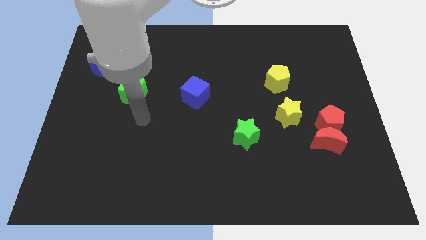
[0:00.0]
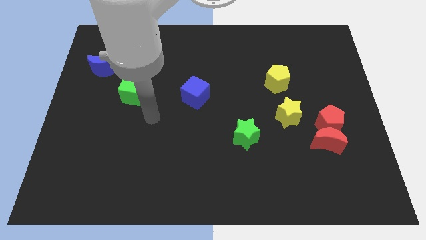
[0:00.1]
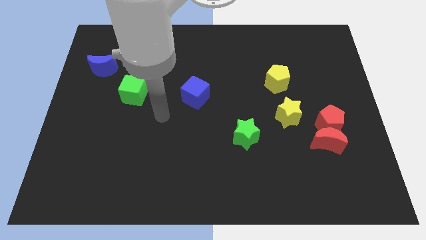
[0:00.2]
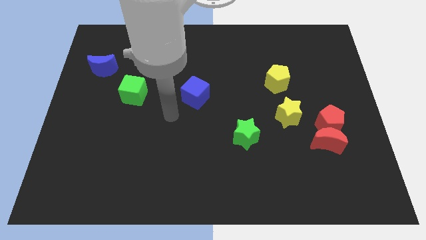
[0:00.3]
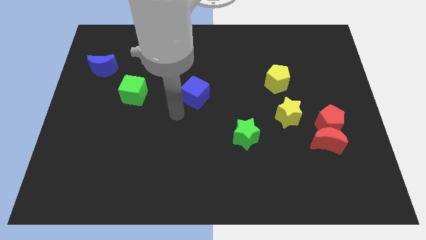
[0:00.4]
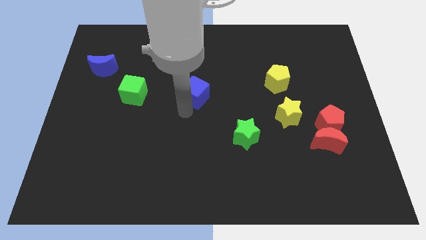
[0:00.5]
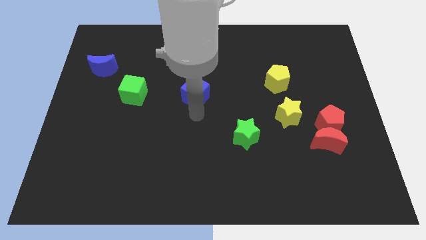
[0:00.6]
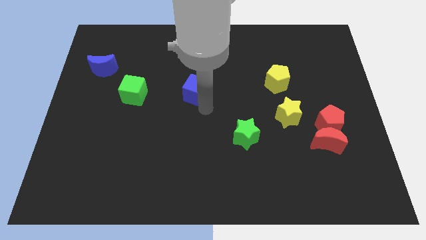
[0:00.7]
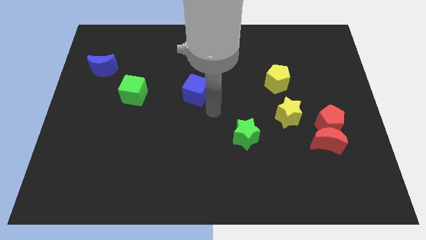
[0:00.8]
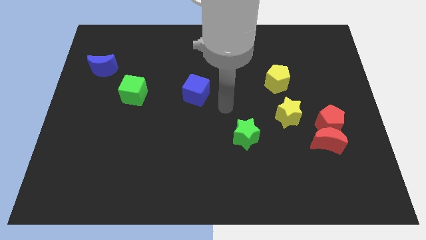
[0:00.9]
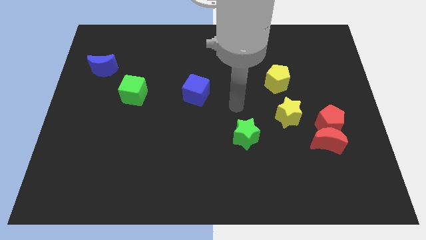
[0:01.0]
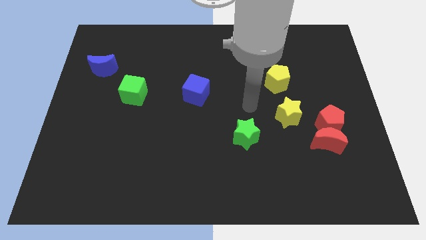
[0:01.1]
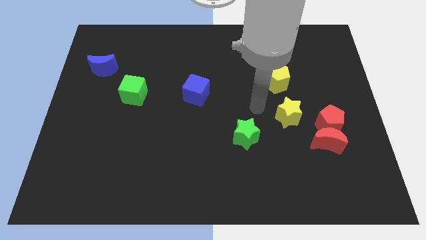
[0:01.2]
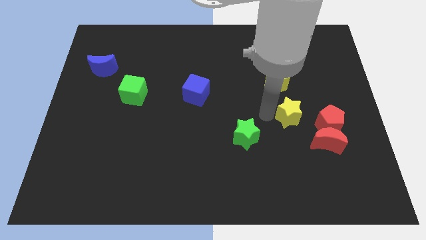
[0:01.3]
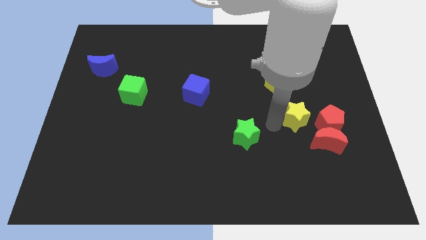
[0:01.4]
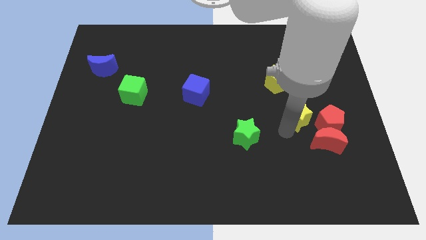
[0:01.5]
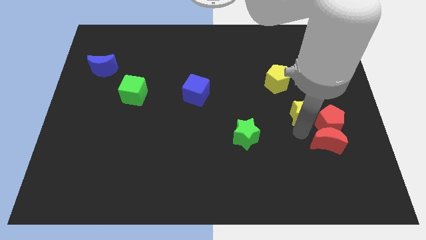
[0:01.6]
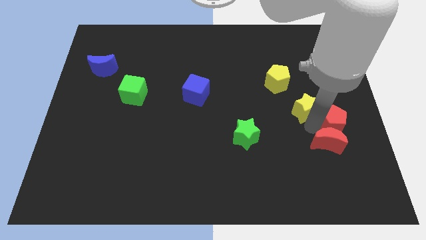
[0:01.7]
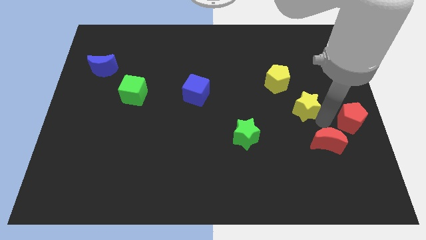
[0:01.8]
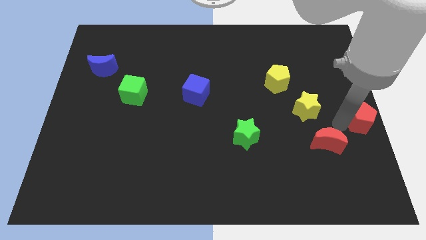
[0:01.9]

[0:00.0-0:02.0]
pull the red moon apart from the red pentagon

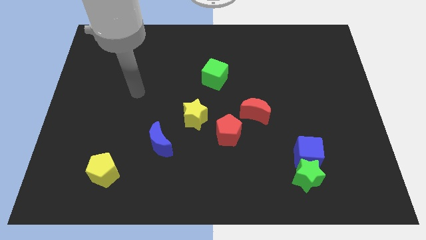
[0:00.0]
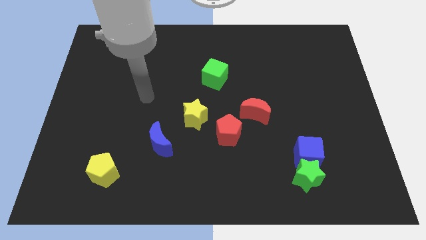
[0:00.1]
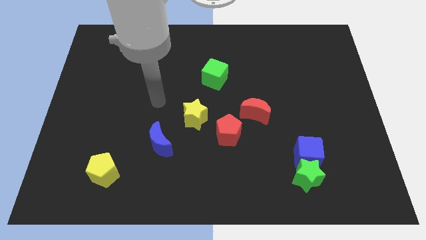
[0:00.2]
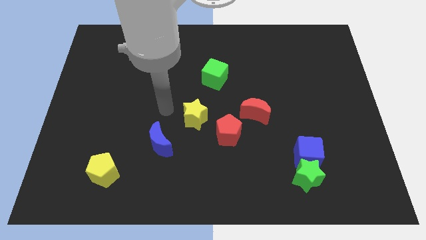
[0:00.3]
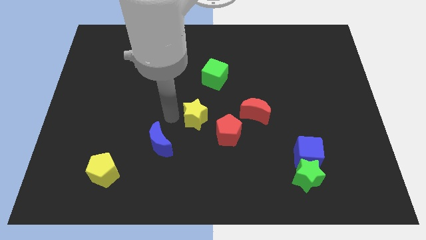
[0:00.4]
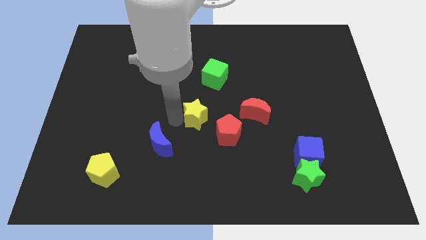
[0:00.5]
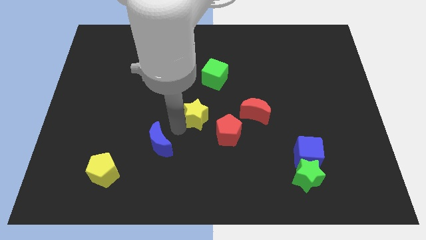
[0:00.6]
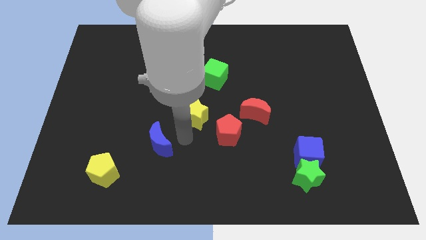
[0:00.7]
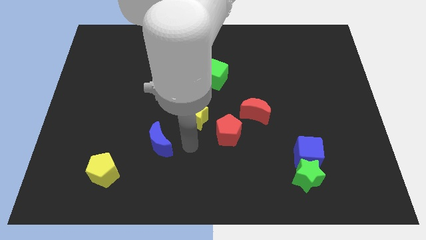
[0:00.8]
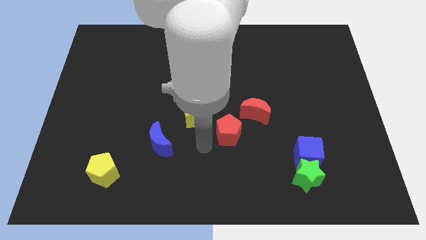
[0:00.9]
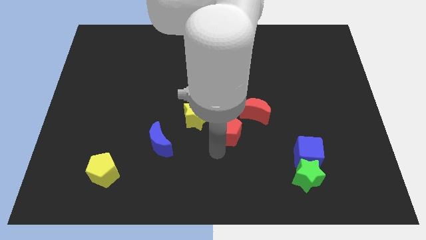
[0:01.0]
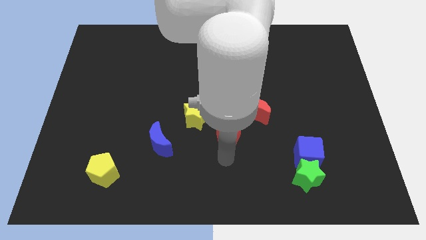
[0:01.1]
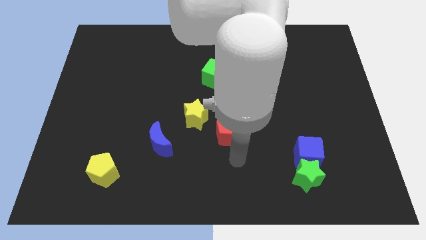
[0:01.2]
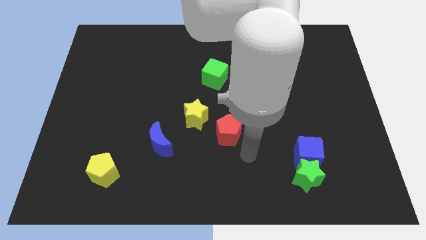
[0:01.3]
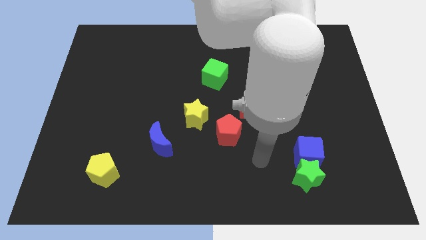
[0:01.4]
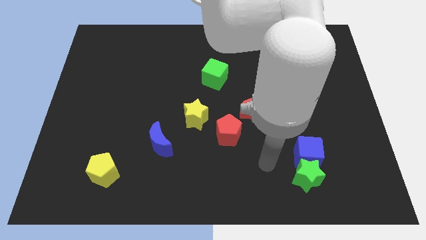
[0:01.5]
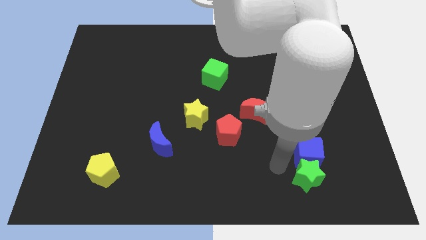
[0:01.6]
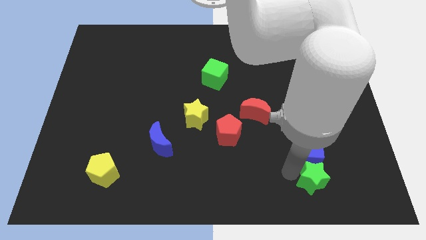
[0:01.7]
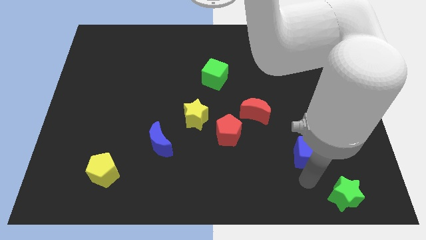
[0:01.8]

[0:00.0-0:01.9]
move the blue cube away from the green star

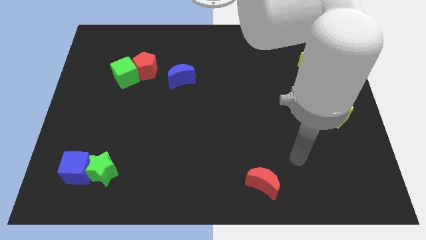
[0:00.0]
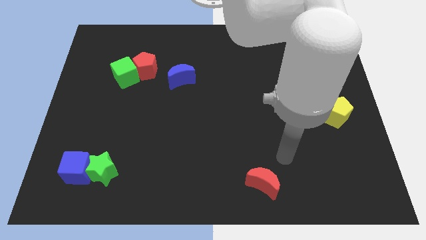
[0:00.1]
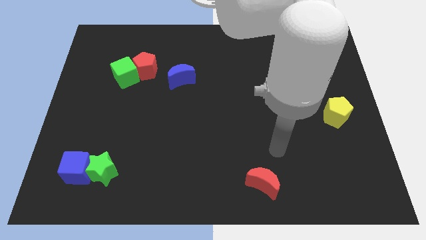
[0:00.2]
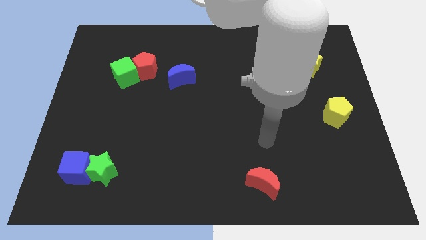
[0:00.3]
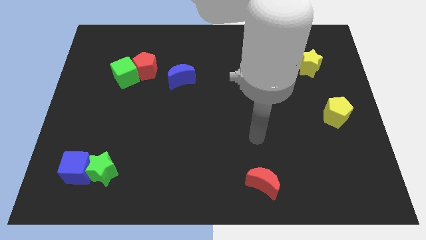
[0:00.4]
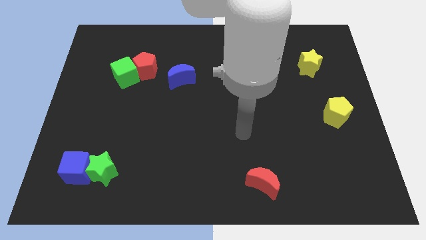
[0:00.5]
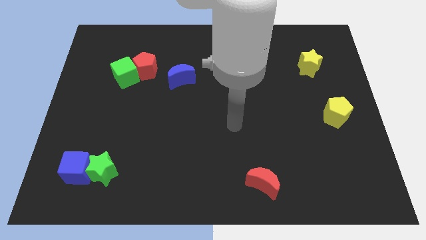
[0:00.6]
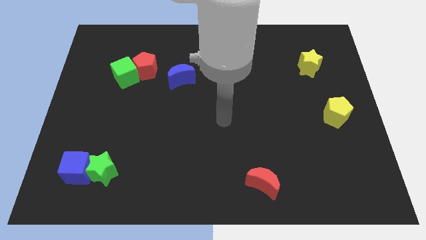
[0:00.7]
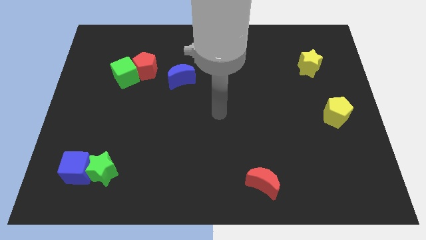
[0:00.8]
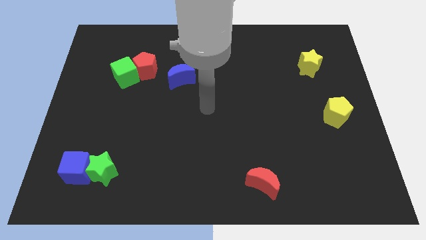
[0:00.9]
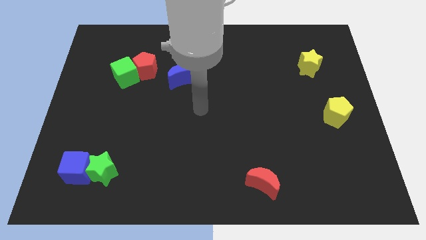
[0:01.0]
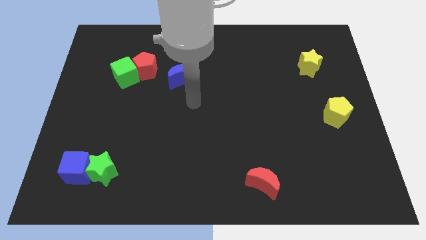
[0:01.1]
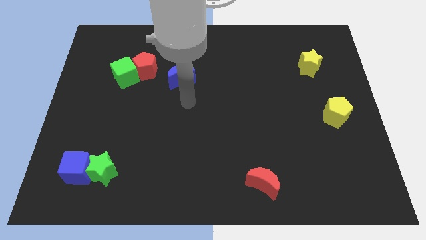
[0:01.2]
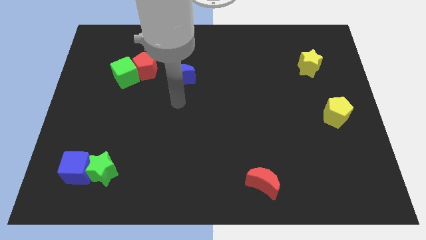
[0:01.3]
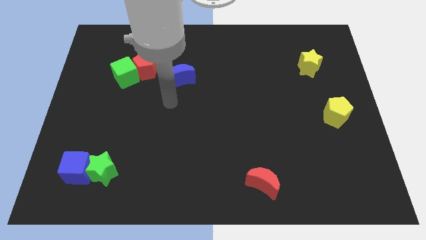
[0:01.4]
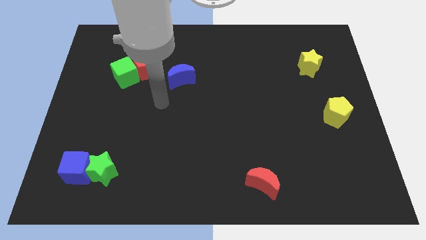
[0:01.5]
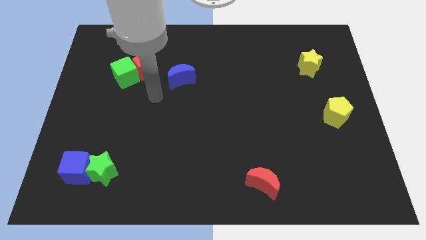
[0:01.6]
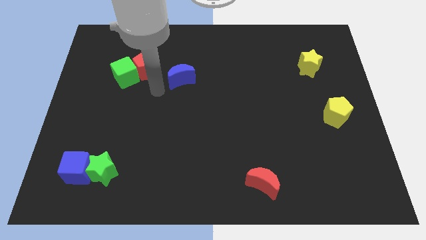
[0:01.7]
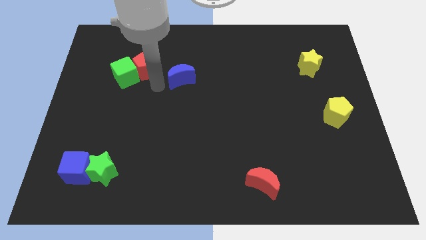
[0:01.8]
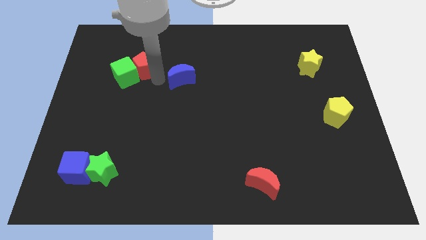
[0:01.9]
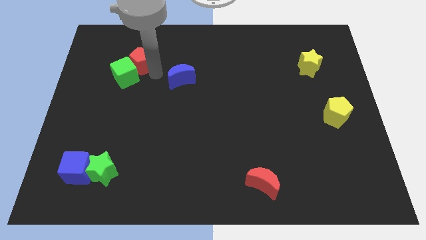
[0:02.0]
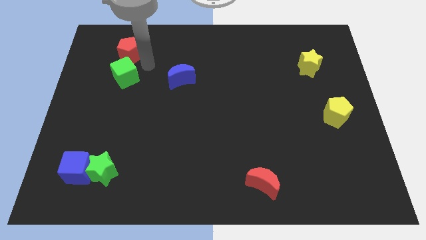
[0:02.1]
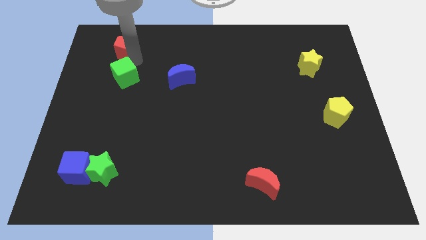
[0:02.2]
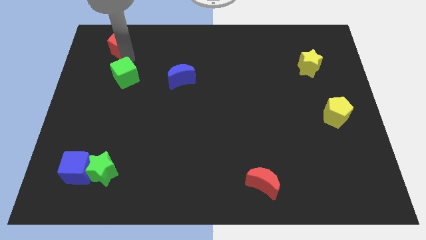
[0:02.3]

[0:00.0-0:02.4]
pull the green cube apart from the red pentagon

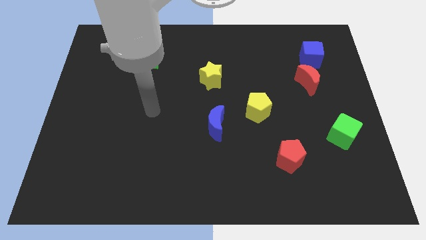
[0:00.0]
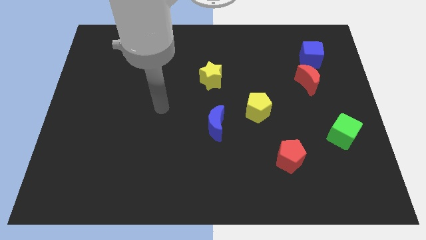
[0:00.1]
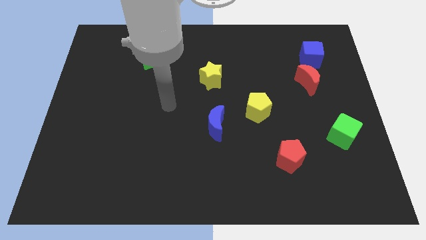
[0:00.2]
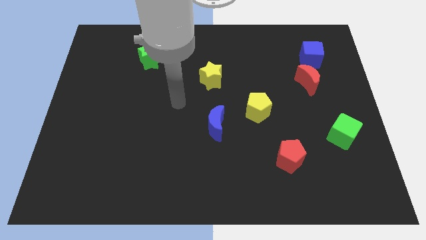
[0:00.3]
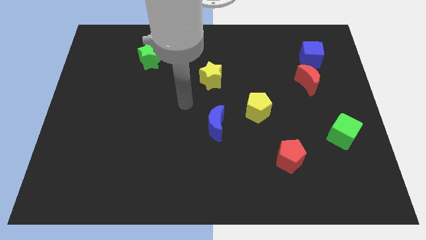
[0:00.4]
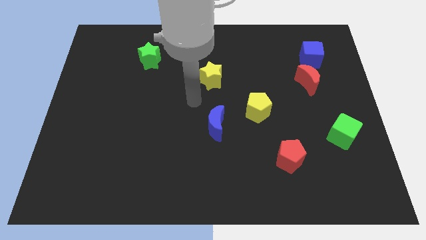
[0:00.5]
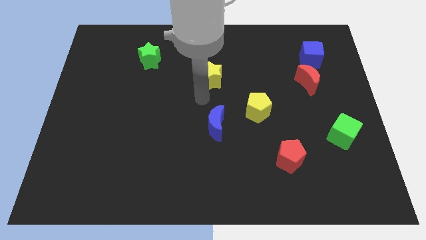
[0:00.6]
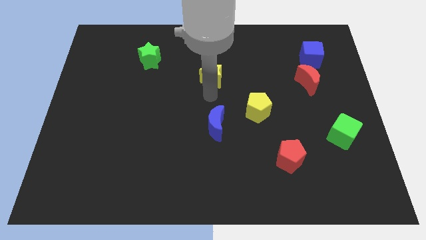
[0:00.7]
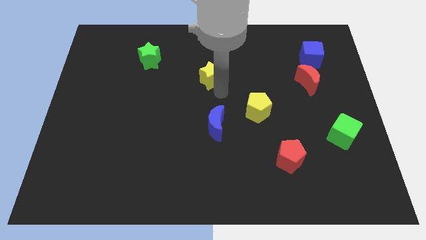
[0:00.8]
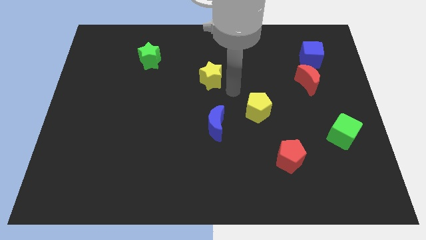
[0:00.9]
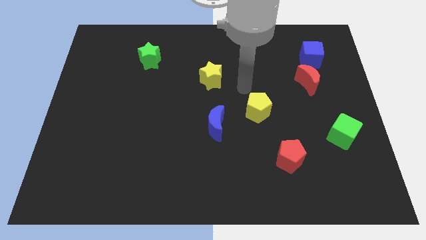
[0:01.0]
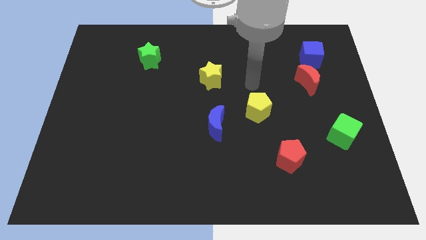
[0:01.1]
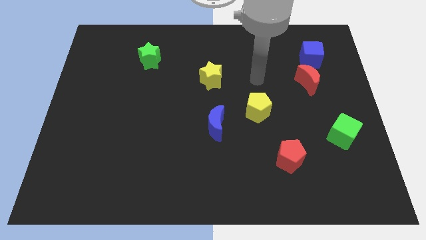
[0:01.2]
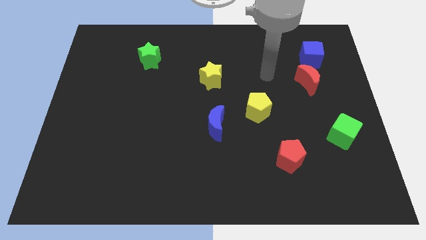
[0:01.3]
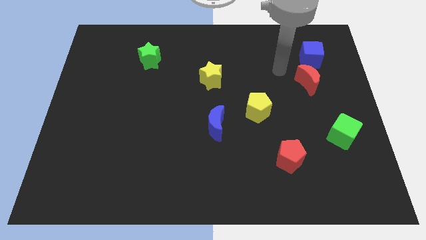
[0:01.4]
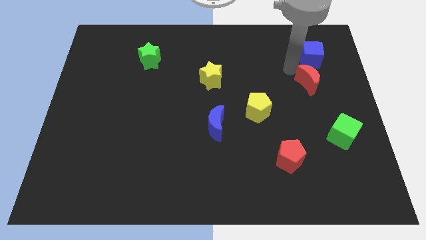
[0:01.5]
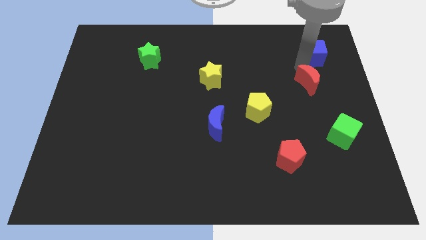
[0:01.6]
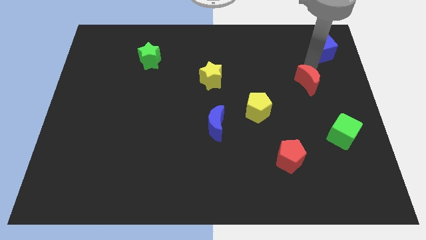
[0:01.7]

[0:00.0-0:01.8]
separate the red moon from the blue cube

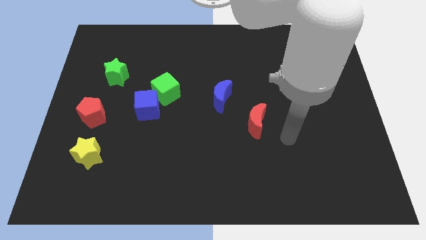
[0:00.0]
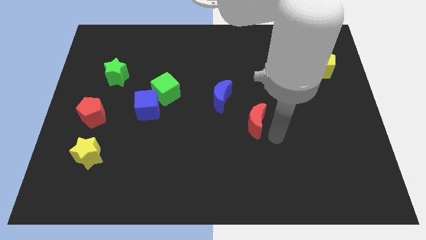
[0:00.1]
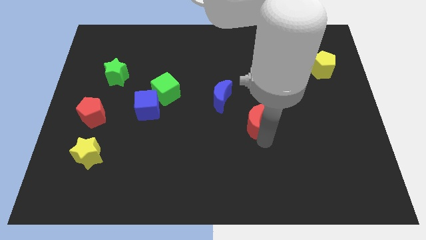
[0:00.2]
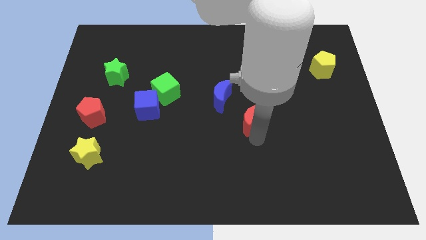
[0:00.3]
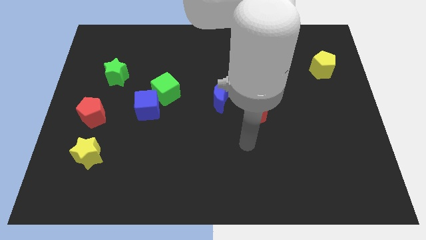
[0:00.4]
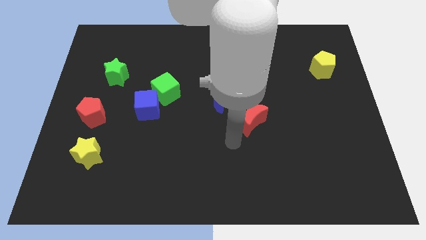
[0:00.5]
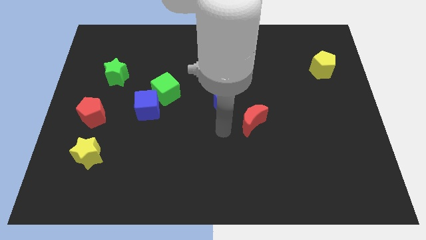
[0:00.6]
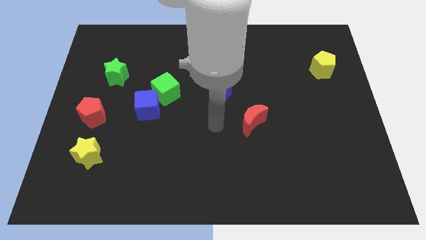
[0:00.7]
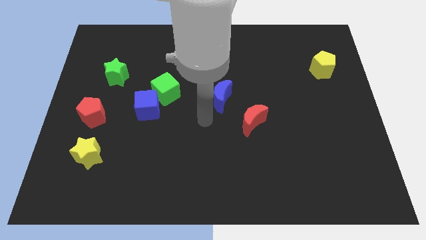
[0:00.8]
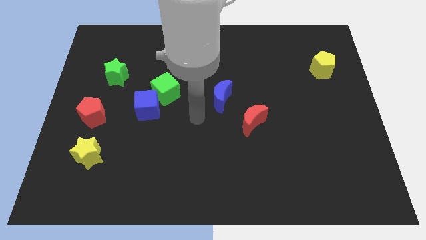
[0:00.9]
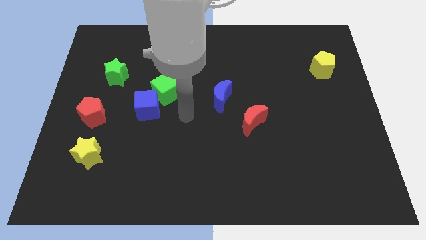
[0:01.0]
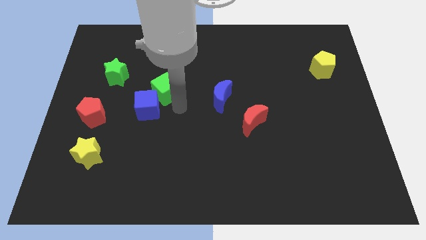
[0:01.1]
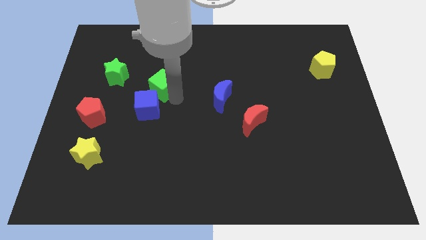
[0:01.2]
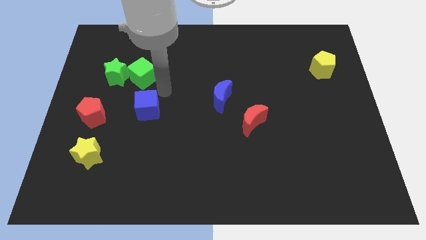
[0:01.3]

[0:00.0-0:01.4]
separate the blue cube from the green cube
